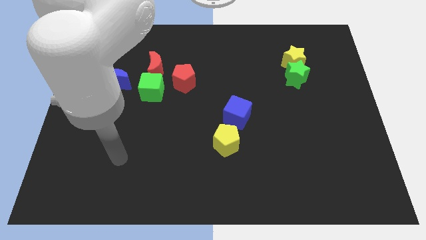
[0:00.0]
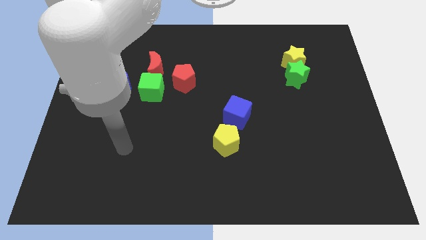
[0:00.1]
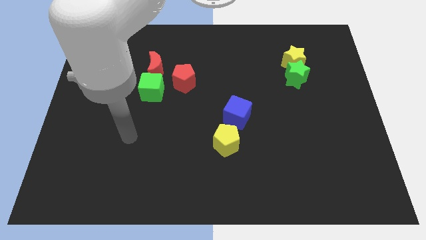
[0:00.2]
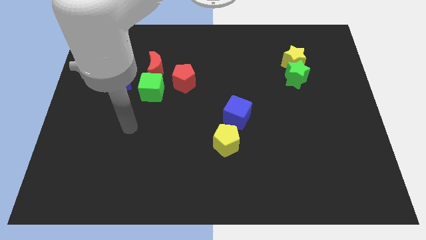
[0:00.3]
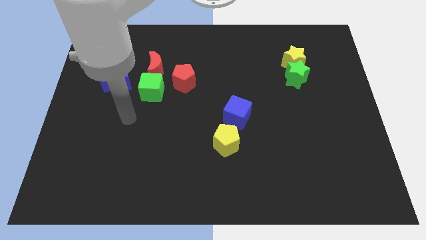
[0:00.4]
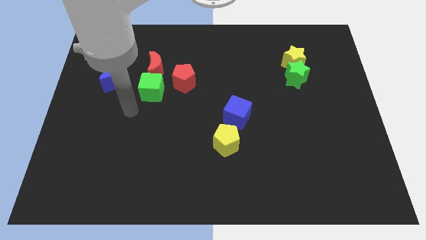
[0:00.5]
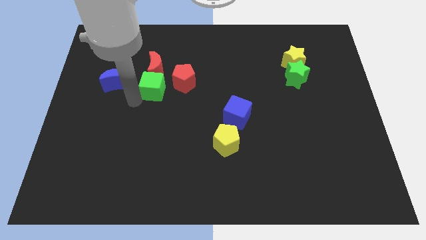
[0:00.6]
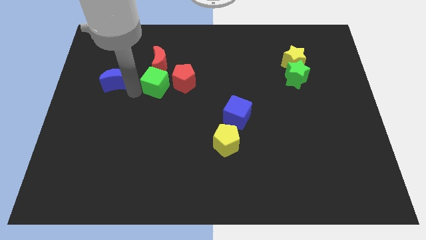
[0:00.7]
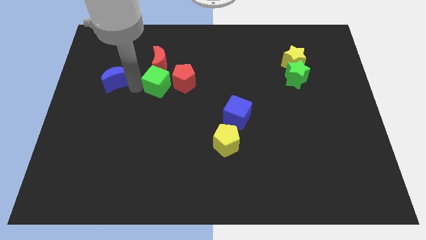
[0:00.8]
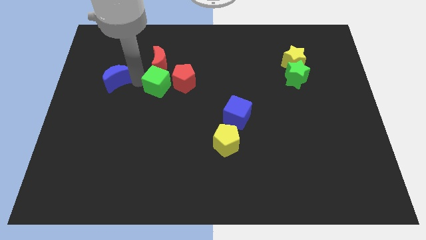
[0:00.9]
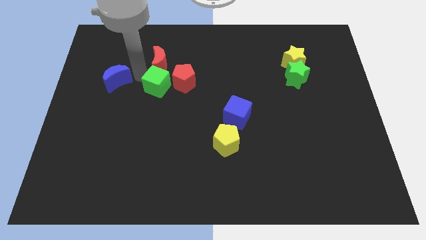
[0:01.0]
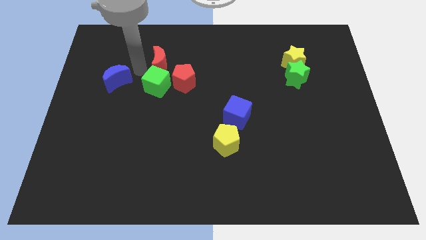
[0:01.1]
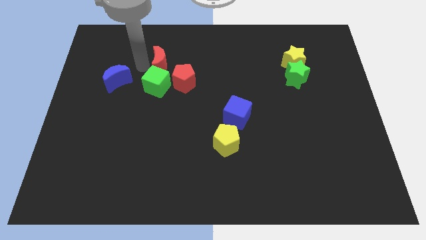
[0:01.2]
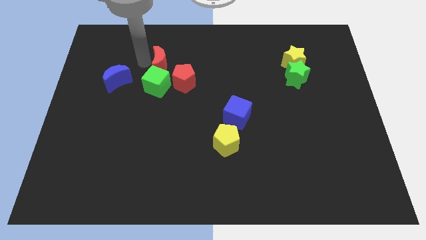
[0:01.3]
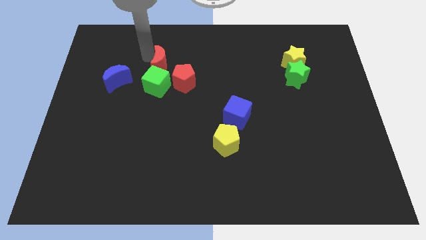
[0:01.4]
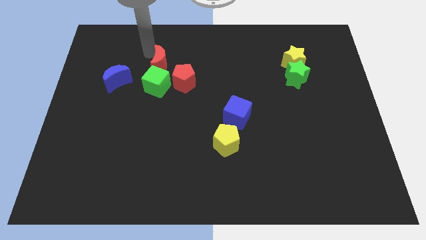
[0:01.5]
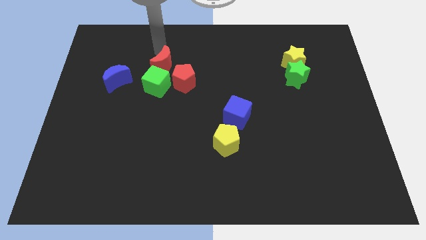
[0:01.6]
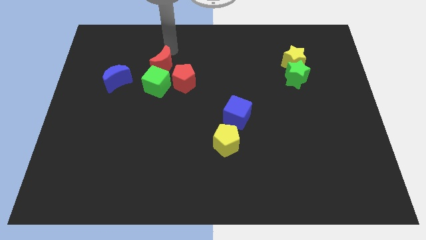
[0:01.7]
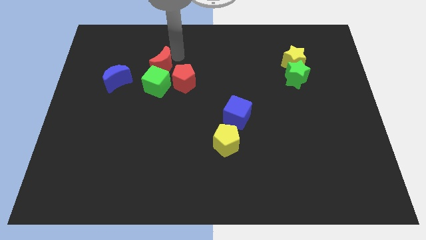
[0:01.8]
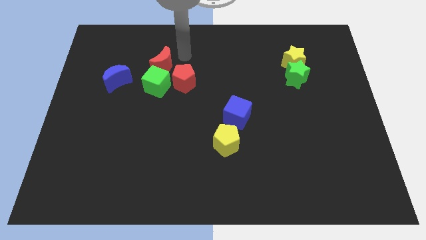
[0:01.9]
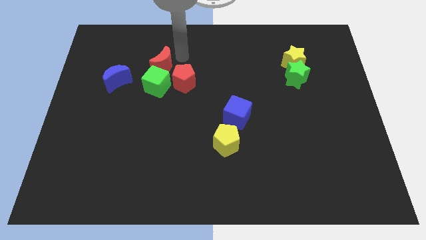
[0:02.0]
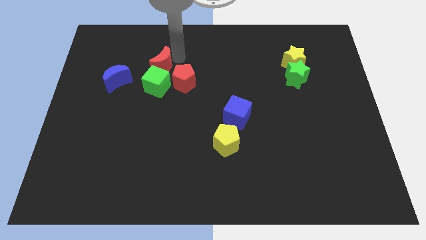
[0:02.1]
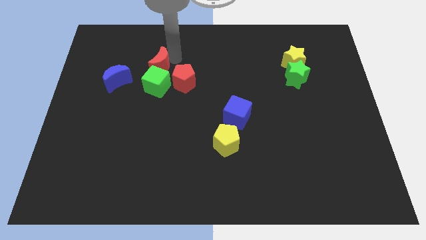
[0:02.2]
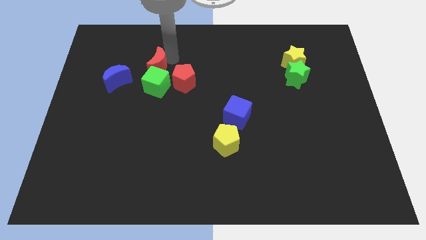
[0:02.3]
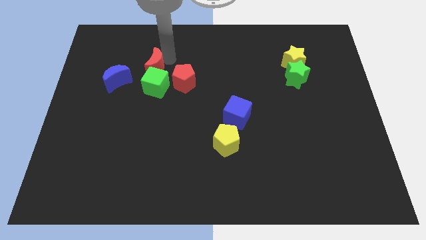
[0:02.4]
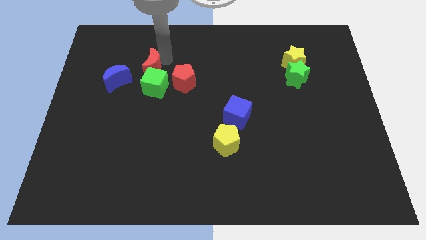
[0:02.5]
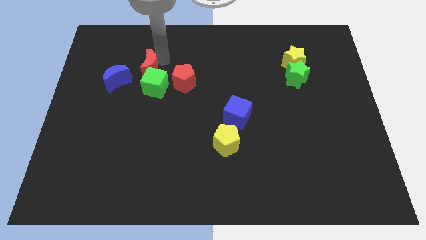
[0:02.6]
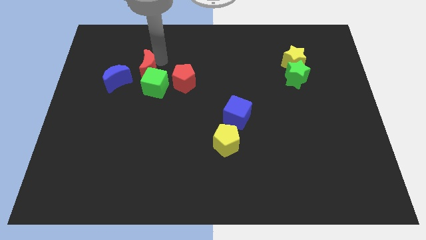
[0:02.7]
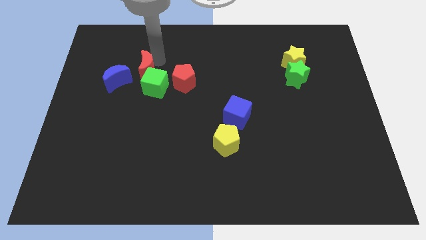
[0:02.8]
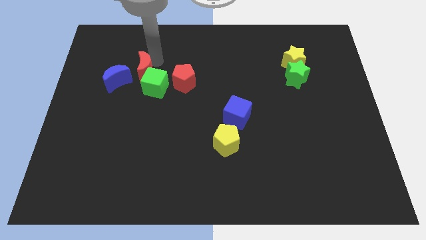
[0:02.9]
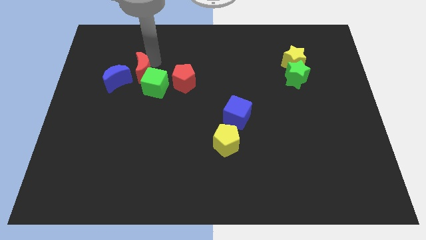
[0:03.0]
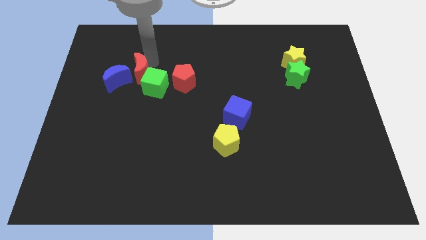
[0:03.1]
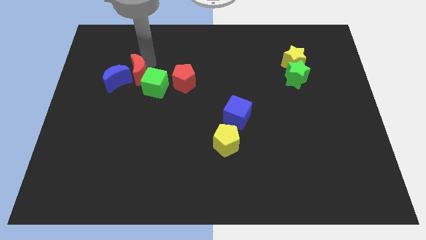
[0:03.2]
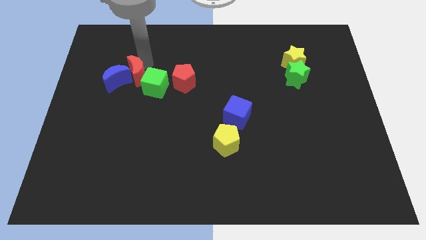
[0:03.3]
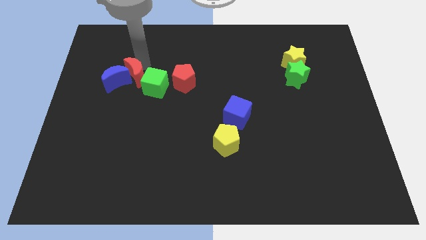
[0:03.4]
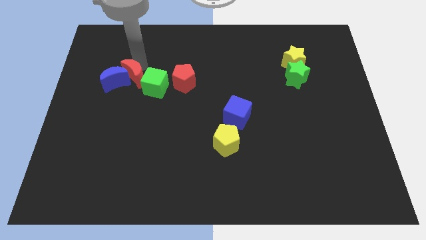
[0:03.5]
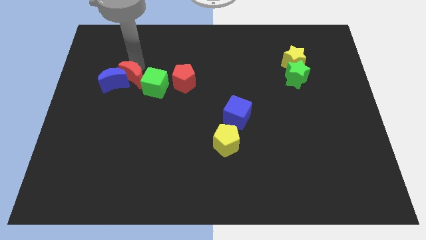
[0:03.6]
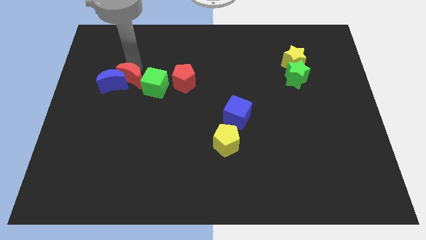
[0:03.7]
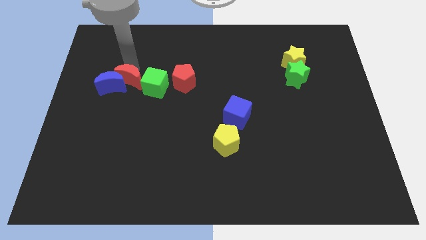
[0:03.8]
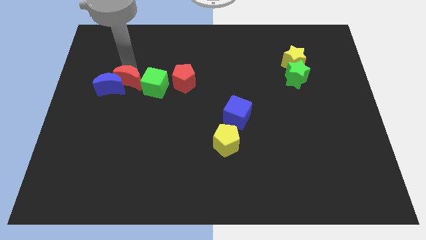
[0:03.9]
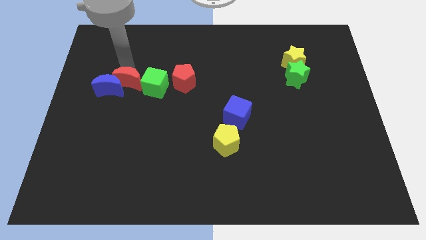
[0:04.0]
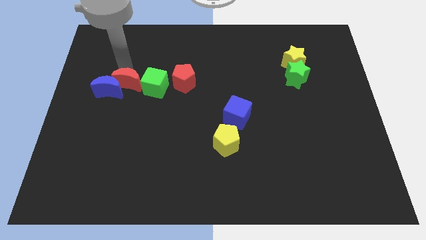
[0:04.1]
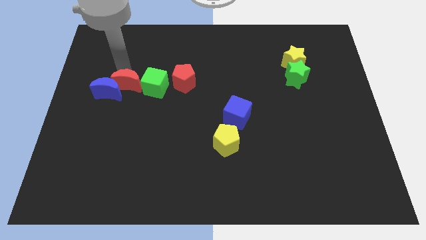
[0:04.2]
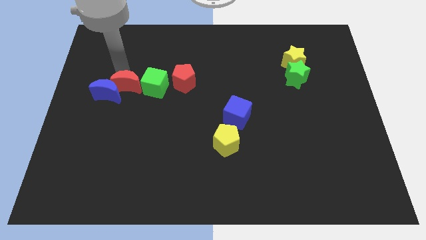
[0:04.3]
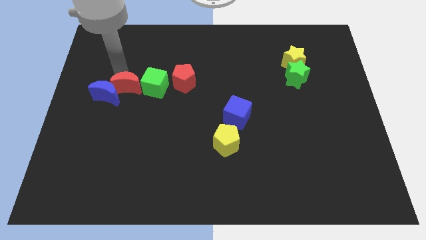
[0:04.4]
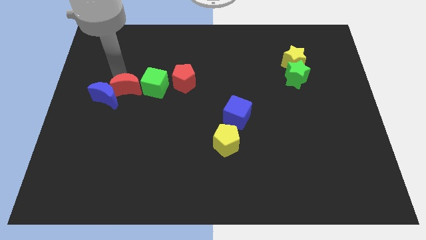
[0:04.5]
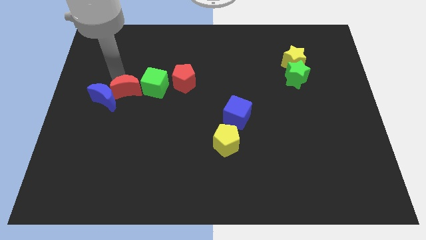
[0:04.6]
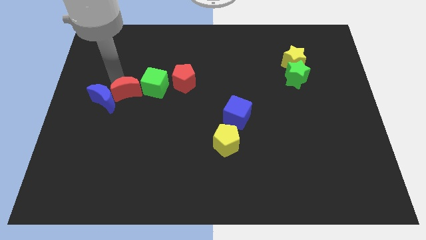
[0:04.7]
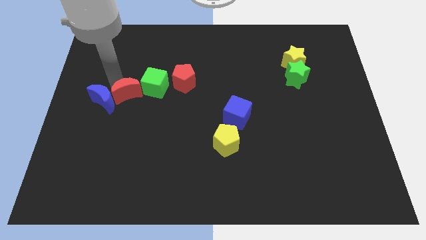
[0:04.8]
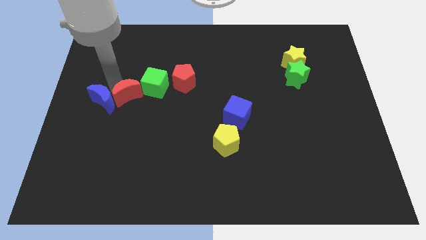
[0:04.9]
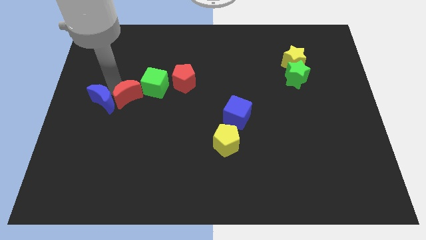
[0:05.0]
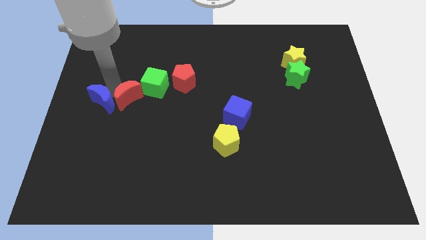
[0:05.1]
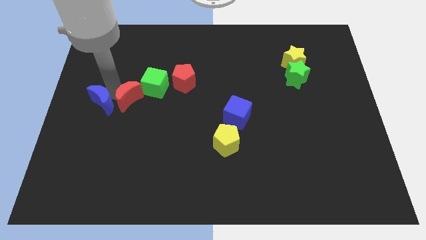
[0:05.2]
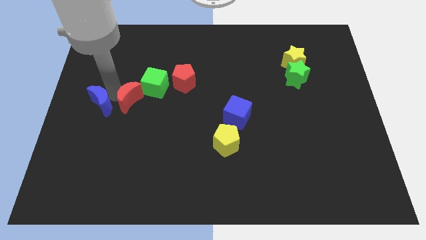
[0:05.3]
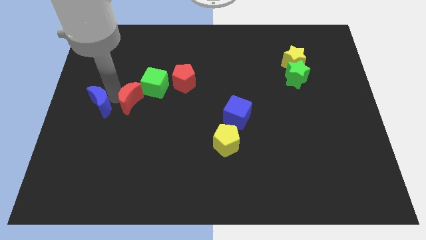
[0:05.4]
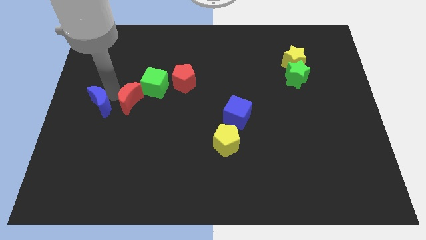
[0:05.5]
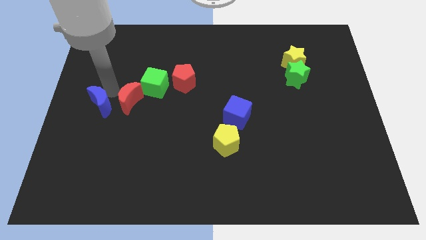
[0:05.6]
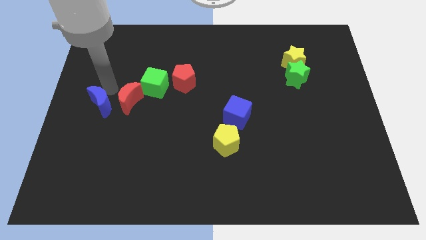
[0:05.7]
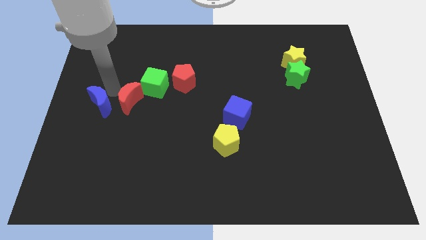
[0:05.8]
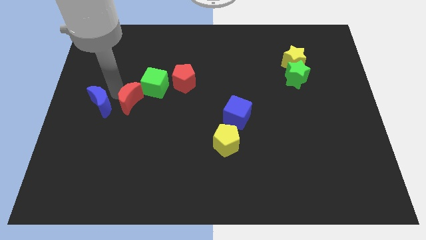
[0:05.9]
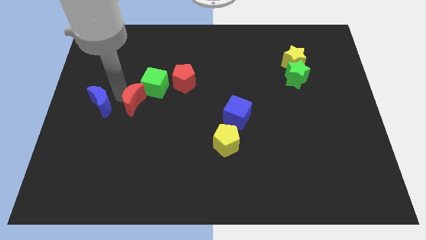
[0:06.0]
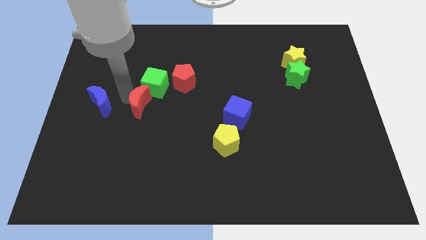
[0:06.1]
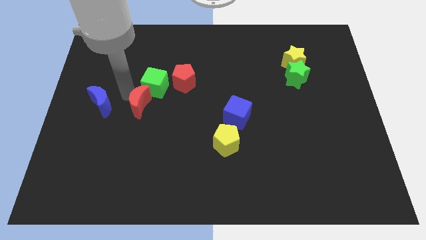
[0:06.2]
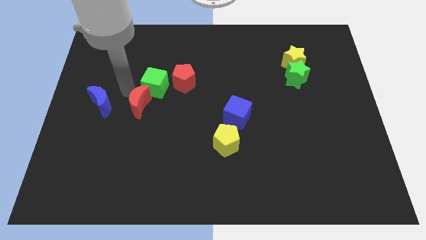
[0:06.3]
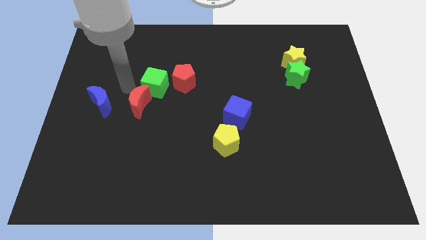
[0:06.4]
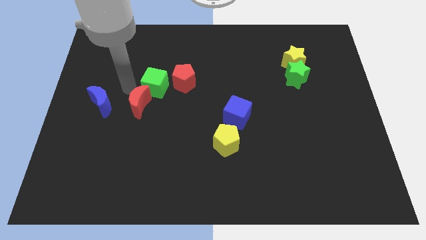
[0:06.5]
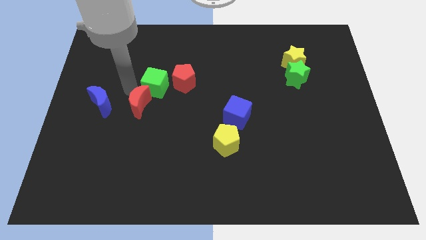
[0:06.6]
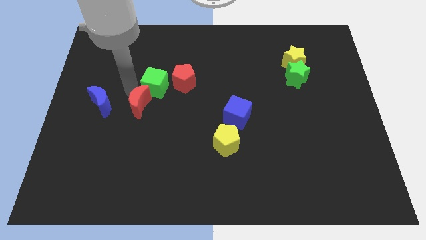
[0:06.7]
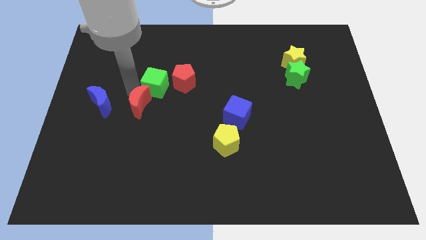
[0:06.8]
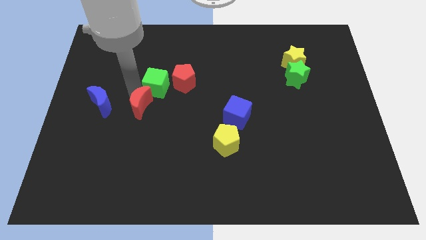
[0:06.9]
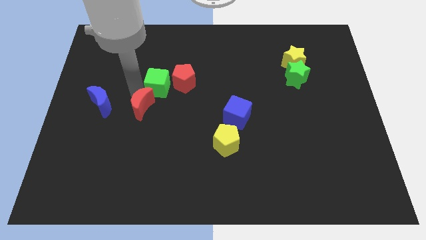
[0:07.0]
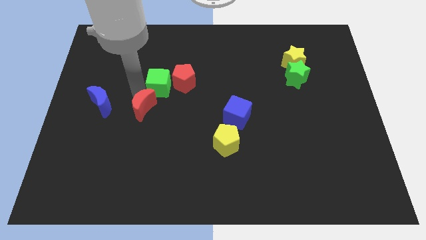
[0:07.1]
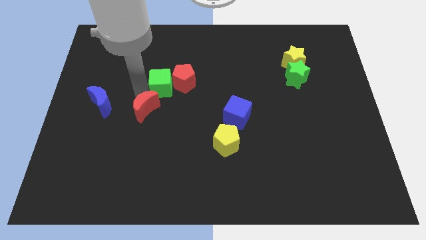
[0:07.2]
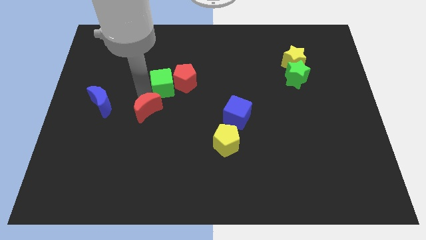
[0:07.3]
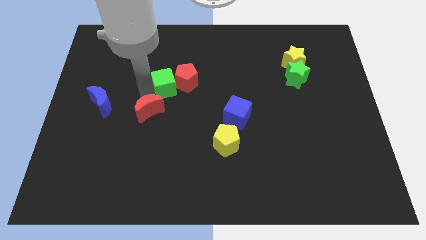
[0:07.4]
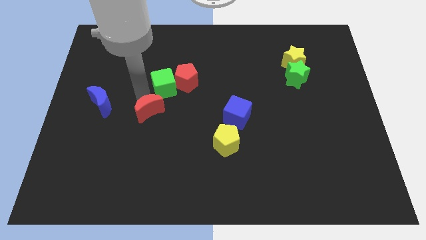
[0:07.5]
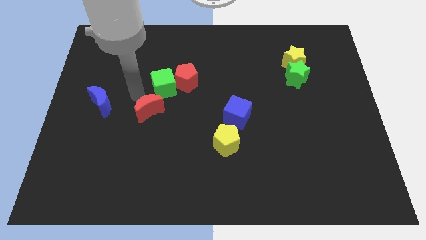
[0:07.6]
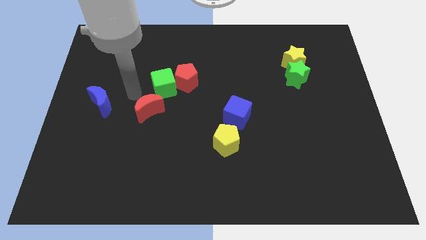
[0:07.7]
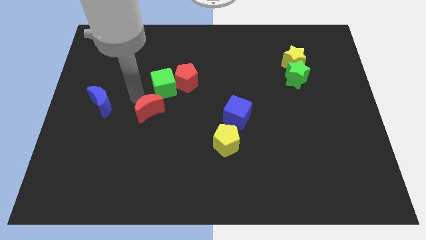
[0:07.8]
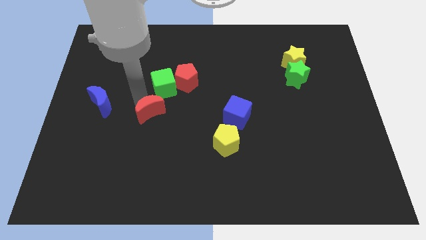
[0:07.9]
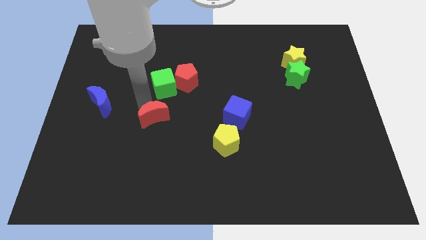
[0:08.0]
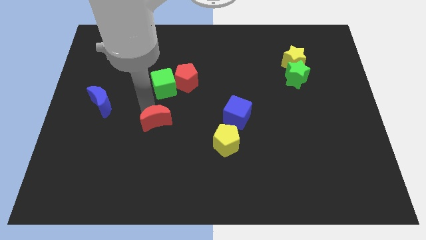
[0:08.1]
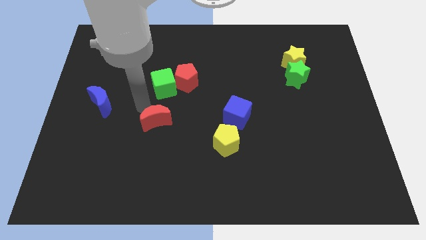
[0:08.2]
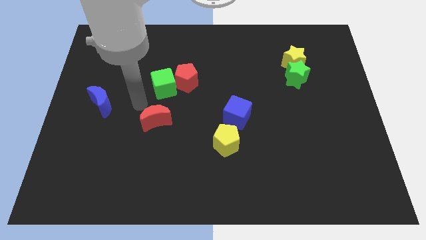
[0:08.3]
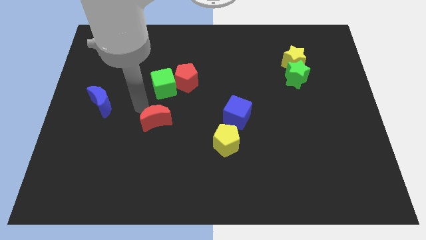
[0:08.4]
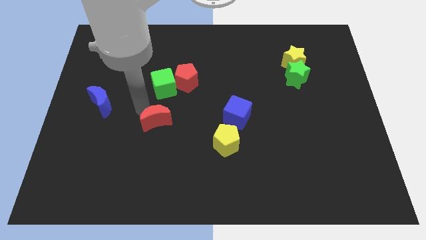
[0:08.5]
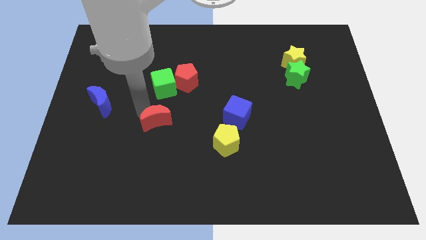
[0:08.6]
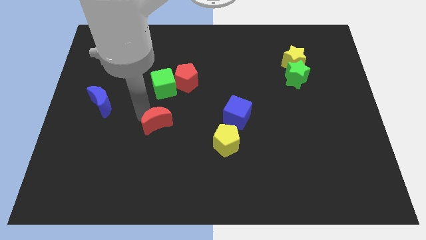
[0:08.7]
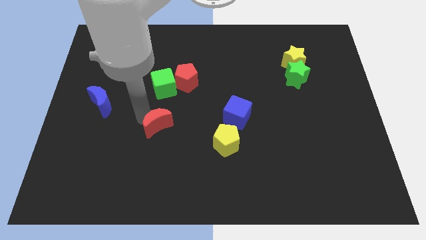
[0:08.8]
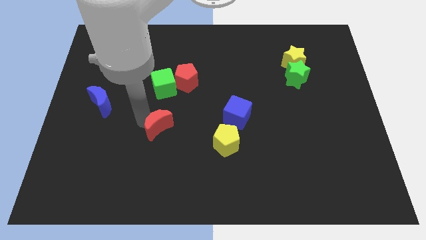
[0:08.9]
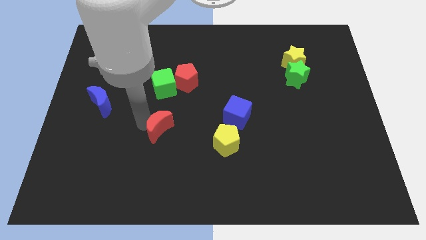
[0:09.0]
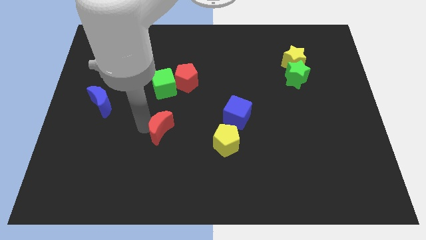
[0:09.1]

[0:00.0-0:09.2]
move the red moon to the left of the yellow pentagon
